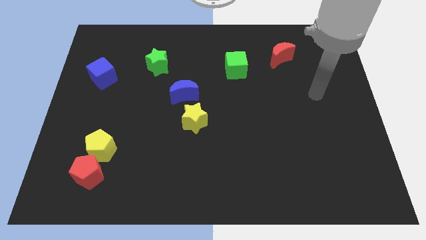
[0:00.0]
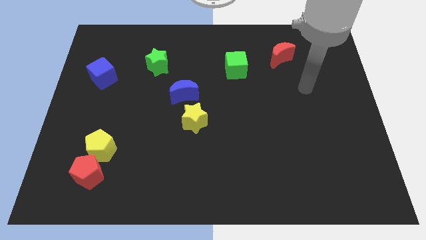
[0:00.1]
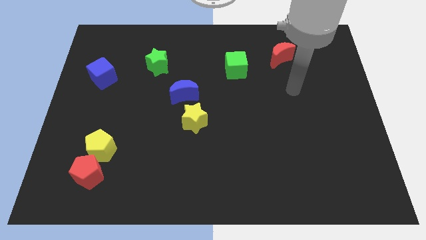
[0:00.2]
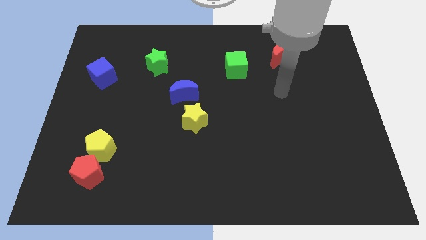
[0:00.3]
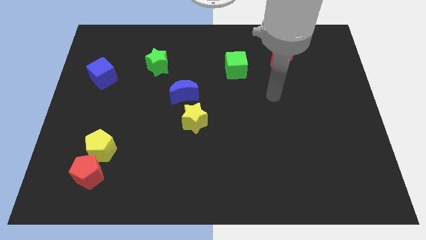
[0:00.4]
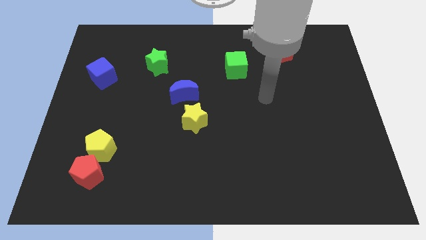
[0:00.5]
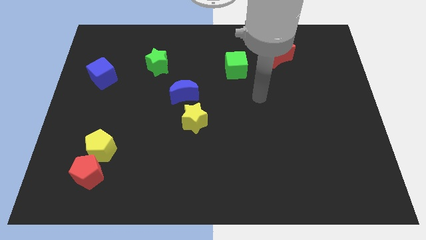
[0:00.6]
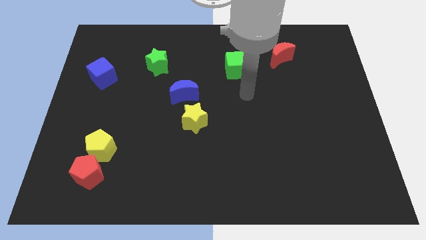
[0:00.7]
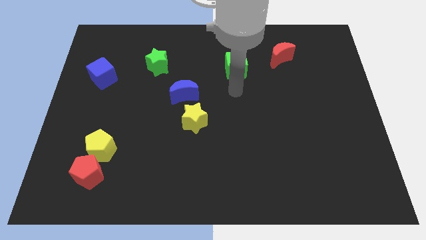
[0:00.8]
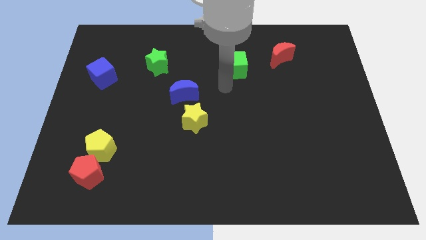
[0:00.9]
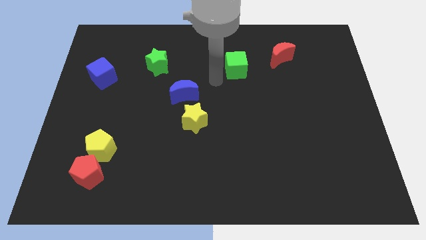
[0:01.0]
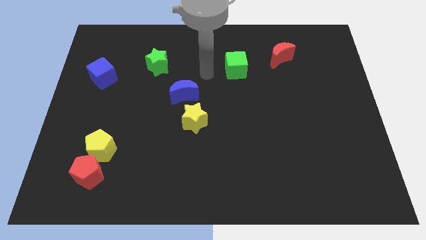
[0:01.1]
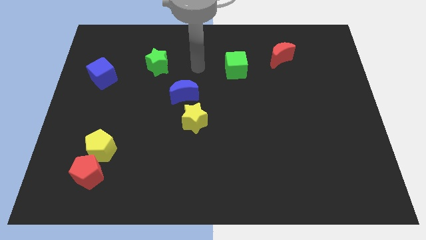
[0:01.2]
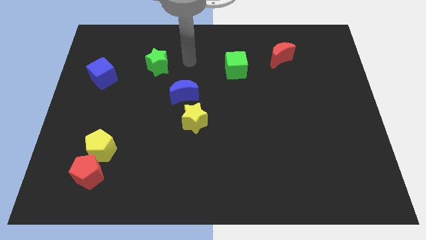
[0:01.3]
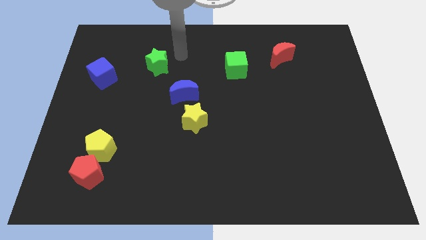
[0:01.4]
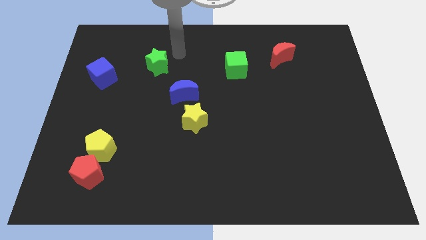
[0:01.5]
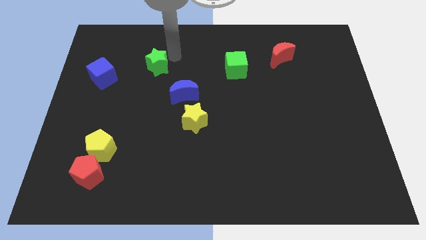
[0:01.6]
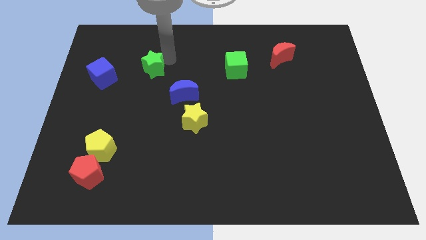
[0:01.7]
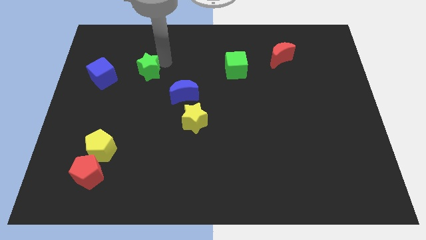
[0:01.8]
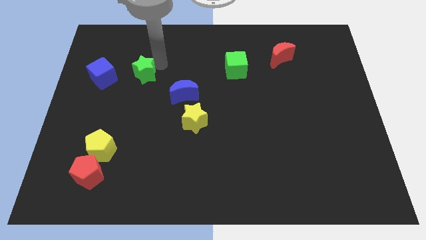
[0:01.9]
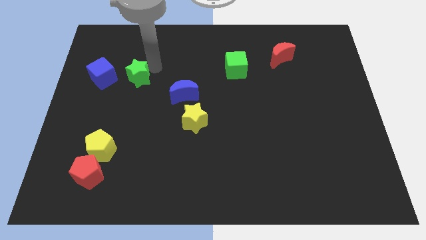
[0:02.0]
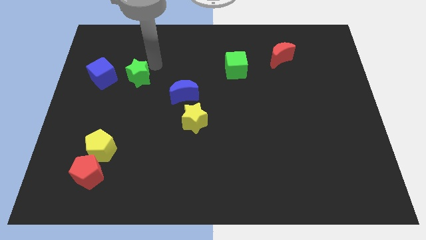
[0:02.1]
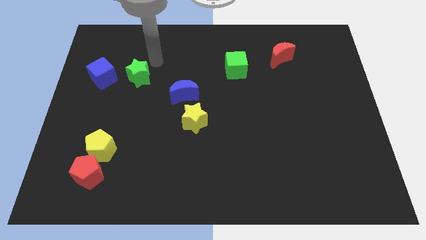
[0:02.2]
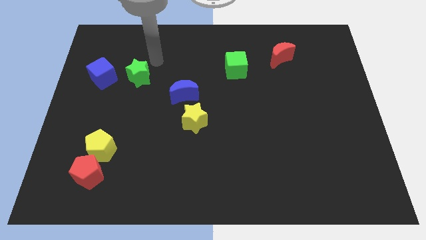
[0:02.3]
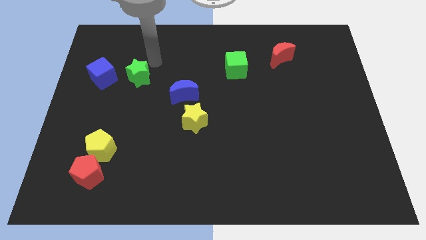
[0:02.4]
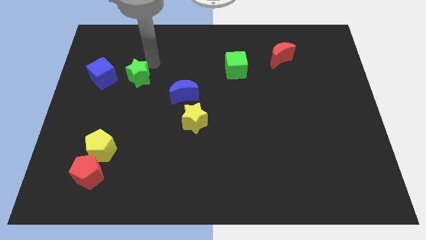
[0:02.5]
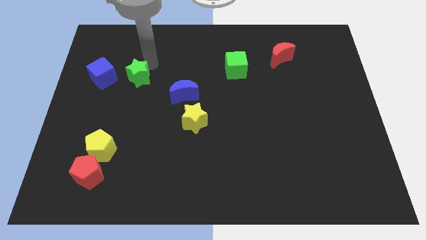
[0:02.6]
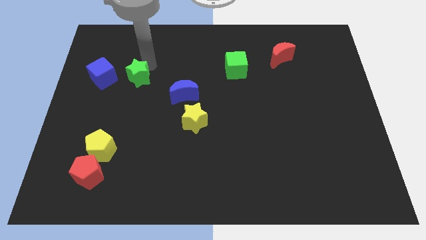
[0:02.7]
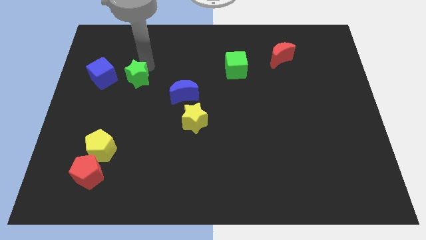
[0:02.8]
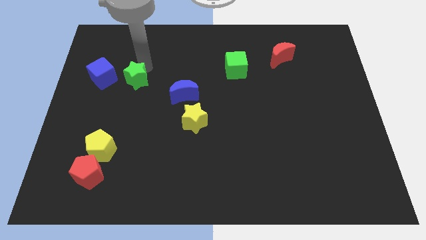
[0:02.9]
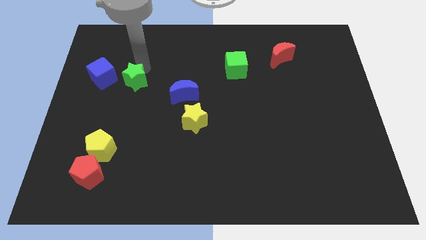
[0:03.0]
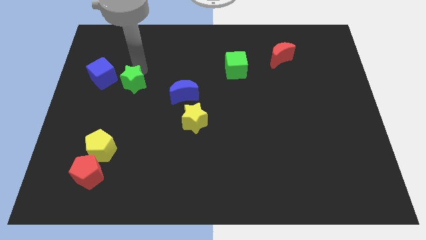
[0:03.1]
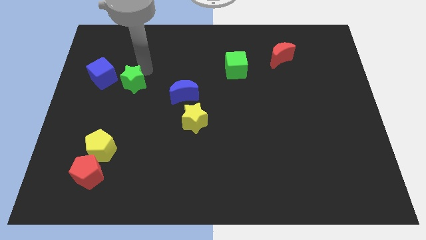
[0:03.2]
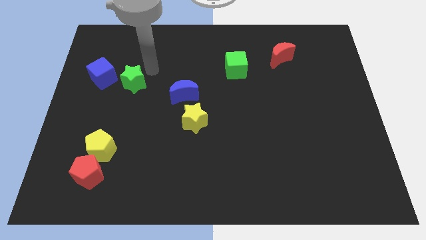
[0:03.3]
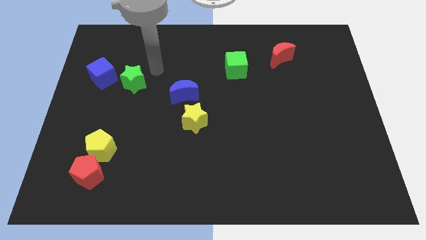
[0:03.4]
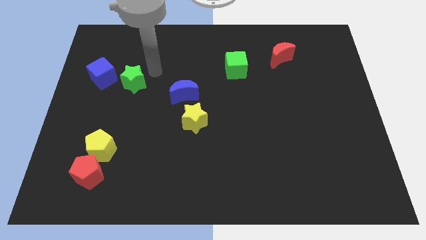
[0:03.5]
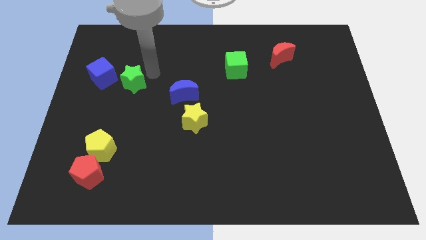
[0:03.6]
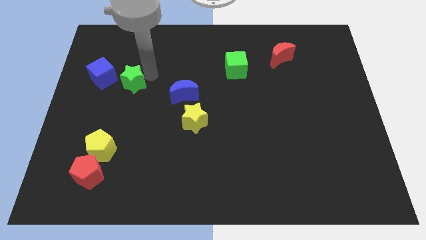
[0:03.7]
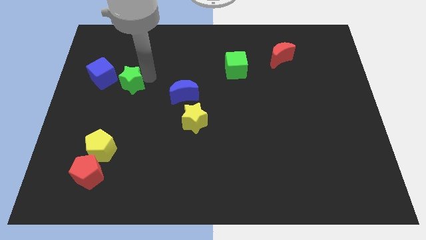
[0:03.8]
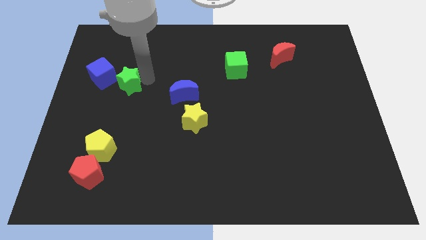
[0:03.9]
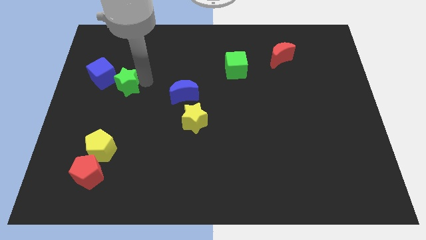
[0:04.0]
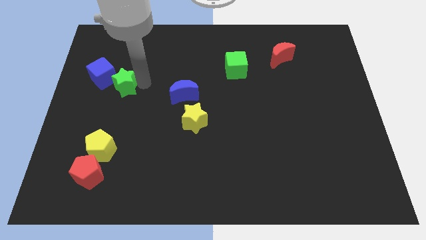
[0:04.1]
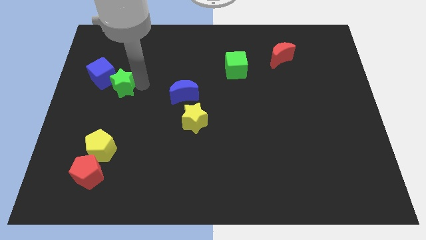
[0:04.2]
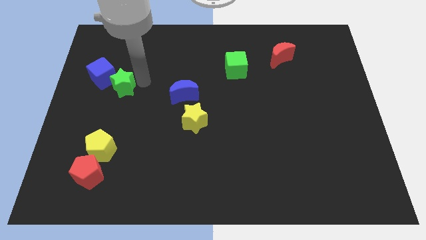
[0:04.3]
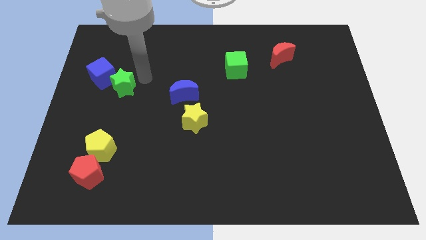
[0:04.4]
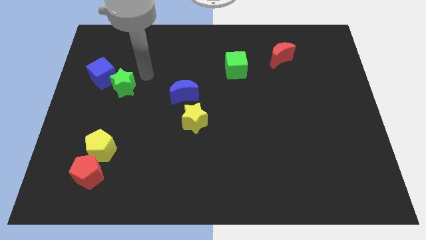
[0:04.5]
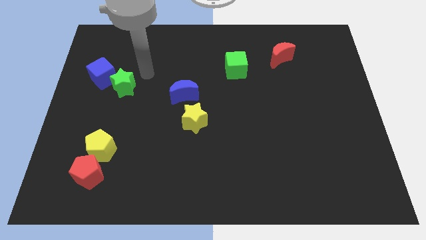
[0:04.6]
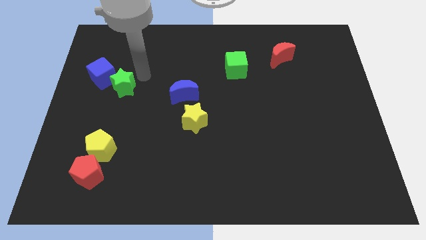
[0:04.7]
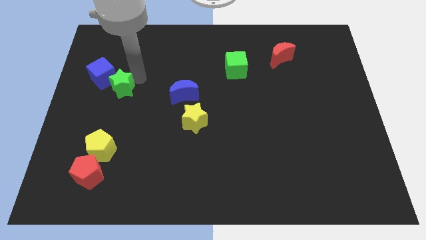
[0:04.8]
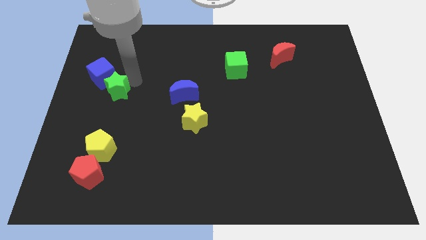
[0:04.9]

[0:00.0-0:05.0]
push the green star to the bottom side of the blue cube

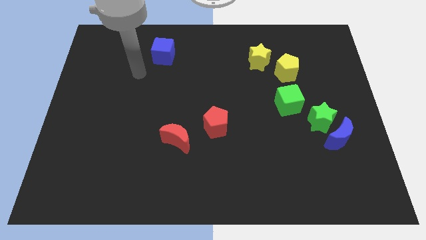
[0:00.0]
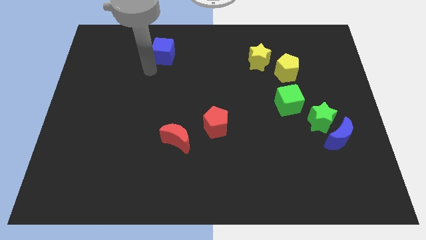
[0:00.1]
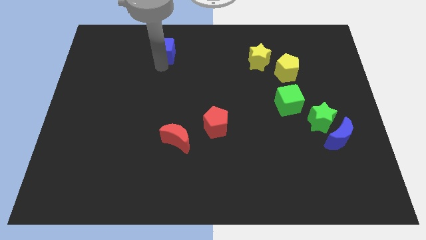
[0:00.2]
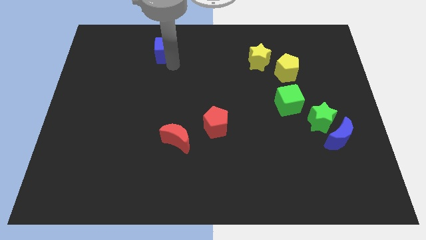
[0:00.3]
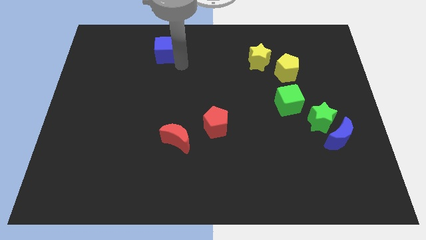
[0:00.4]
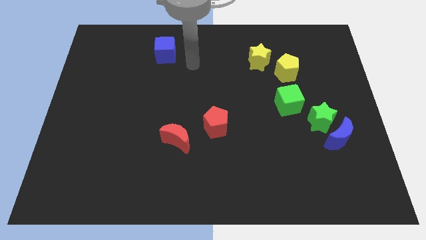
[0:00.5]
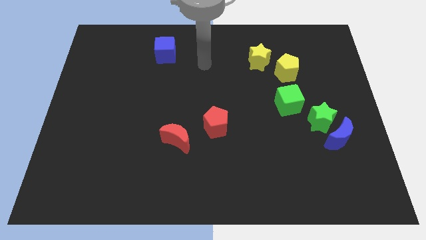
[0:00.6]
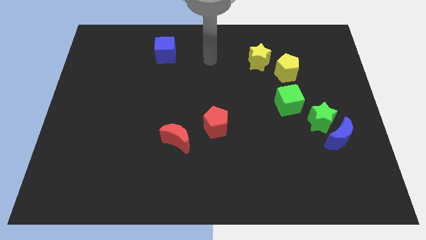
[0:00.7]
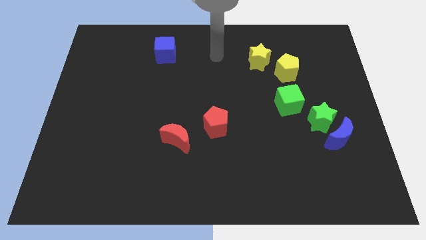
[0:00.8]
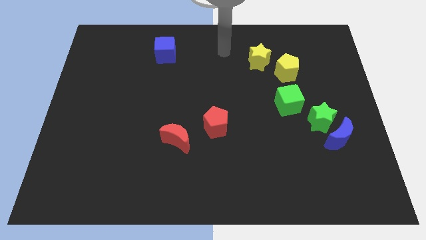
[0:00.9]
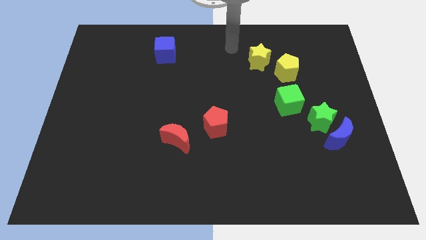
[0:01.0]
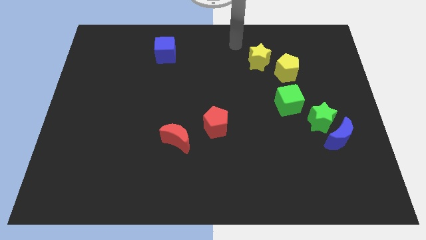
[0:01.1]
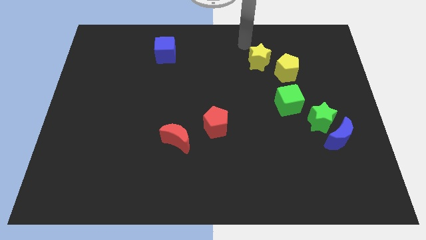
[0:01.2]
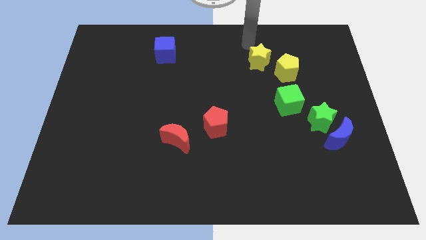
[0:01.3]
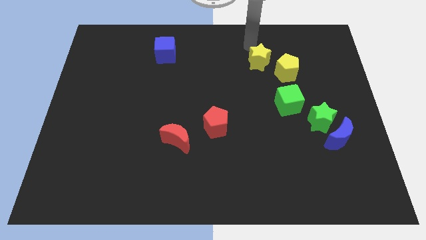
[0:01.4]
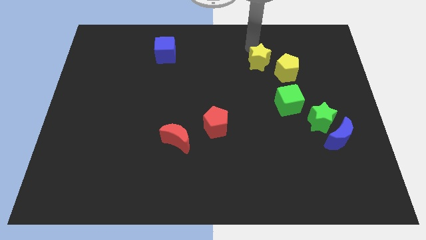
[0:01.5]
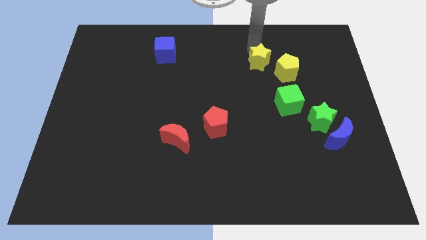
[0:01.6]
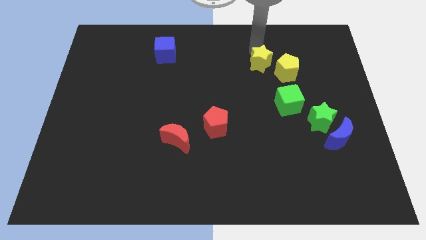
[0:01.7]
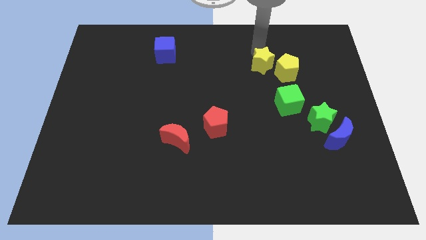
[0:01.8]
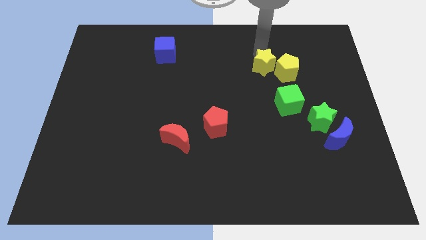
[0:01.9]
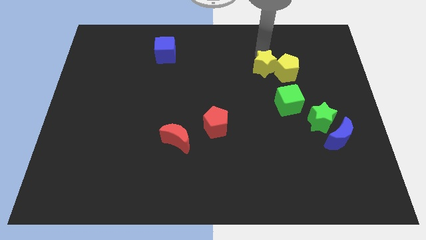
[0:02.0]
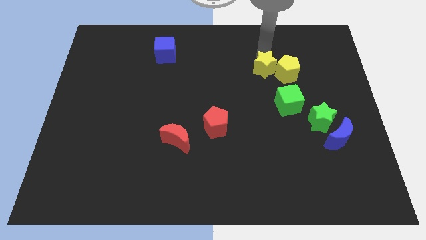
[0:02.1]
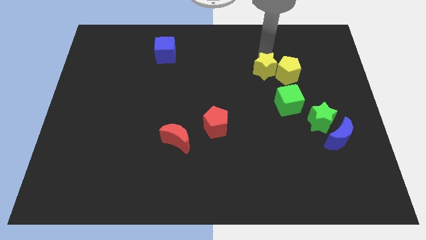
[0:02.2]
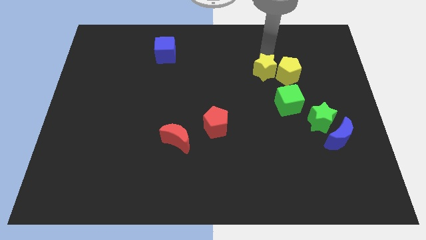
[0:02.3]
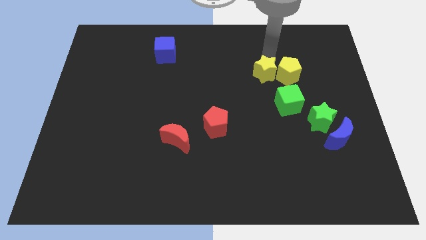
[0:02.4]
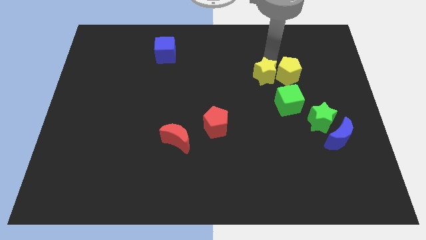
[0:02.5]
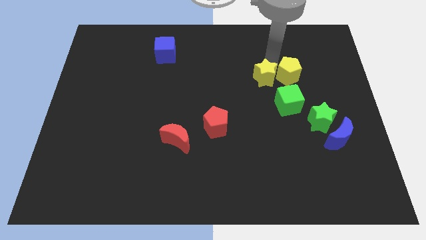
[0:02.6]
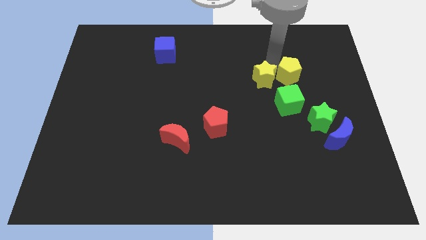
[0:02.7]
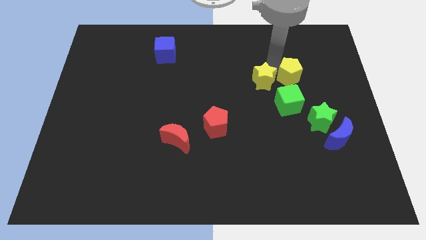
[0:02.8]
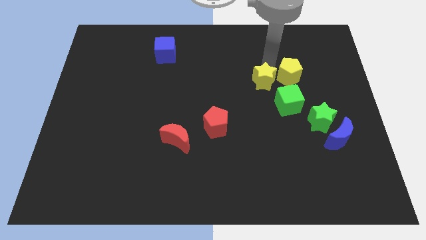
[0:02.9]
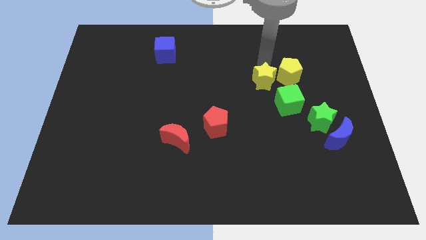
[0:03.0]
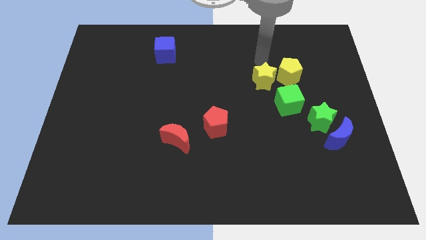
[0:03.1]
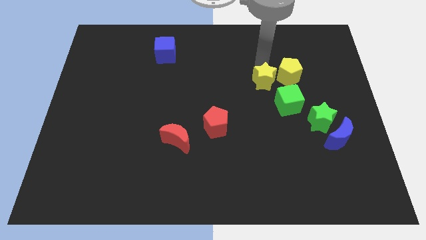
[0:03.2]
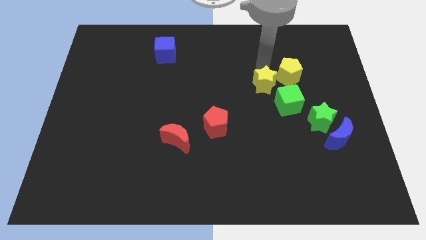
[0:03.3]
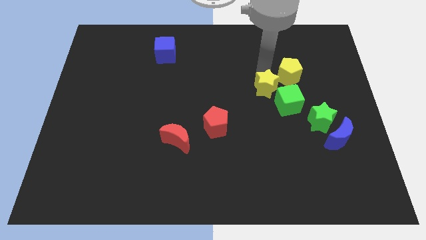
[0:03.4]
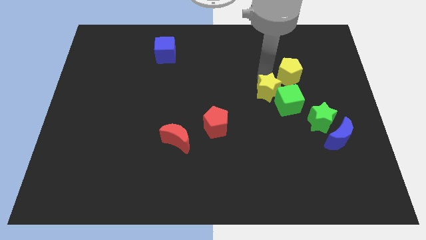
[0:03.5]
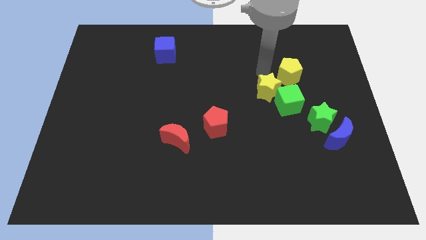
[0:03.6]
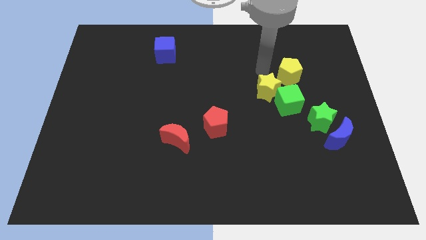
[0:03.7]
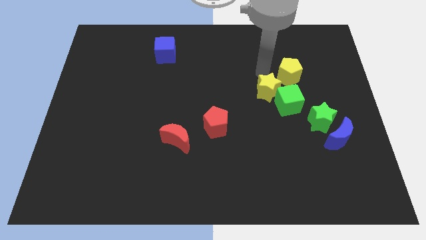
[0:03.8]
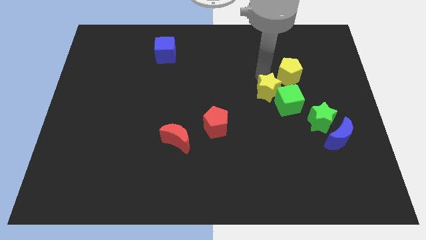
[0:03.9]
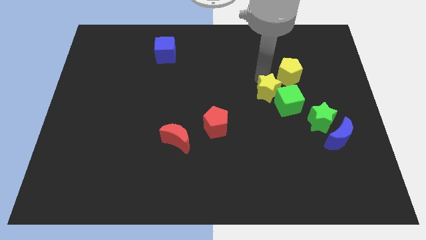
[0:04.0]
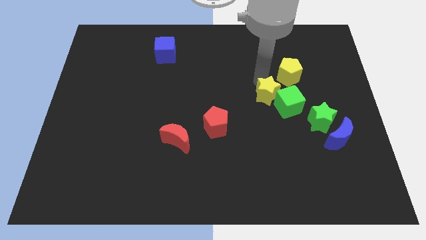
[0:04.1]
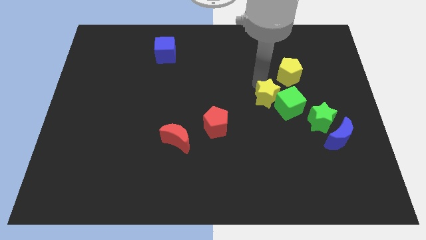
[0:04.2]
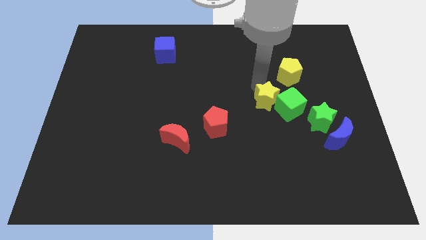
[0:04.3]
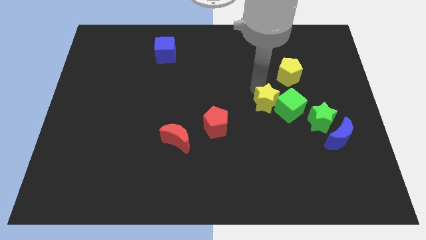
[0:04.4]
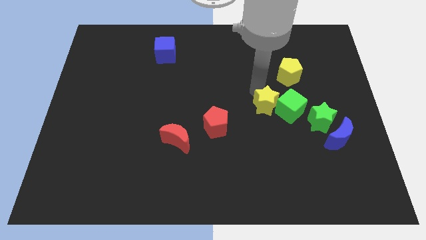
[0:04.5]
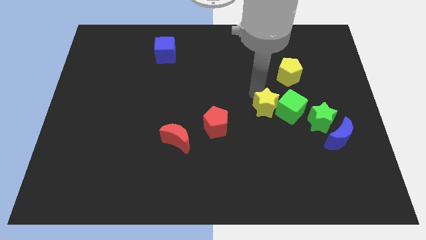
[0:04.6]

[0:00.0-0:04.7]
put the yellow star left of the green star
